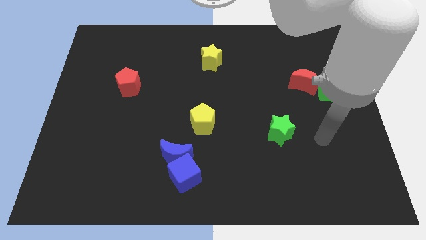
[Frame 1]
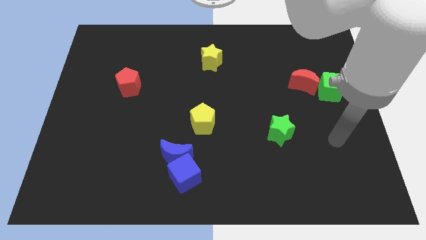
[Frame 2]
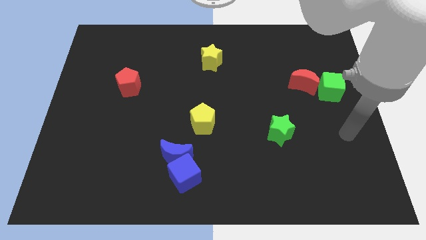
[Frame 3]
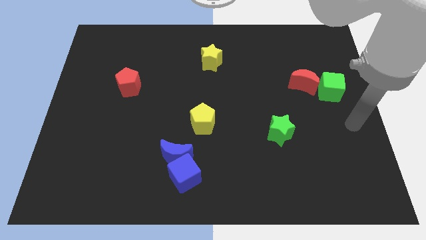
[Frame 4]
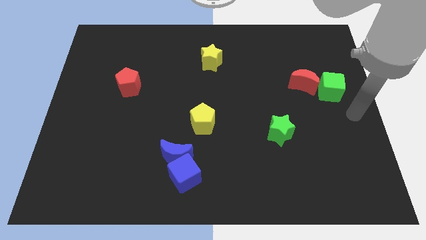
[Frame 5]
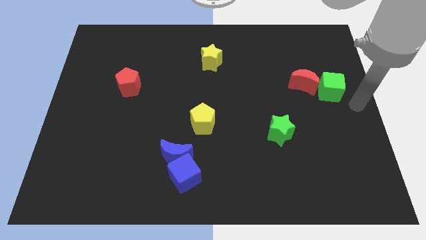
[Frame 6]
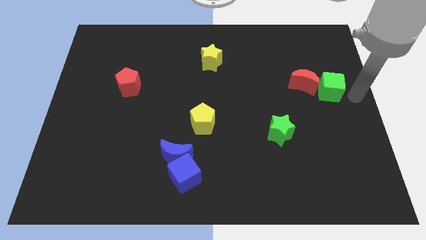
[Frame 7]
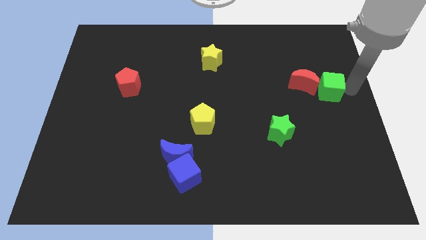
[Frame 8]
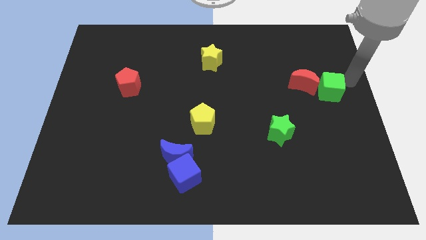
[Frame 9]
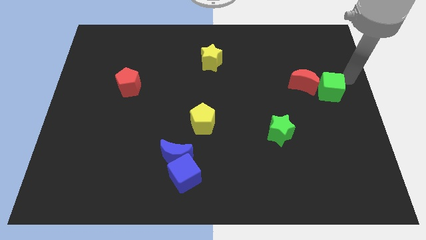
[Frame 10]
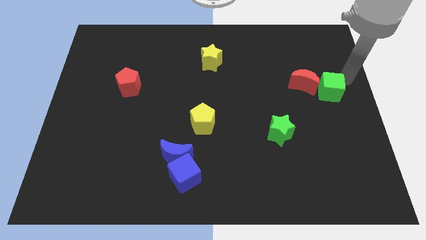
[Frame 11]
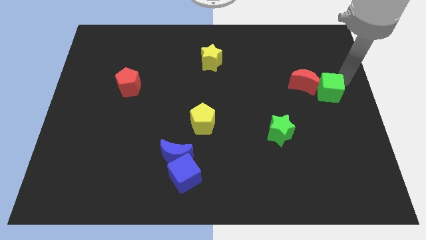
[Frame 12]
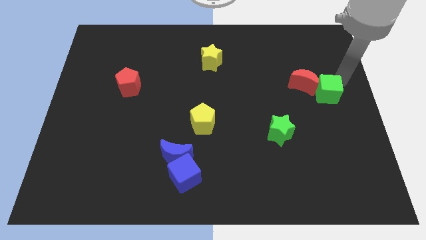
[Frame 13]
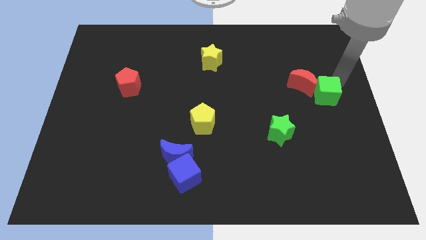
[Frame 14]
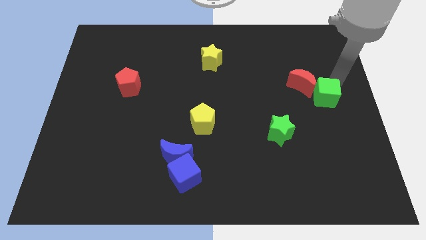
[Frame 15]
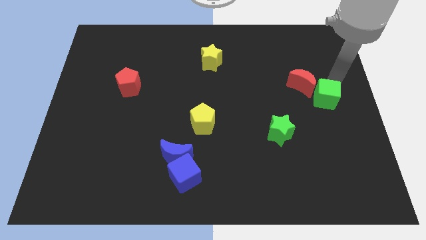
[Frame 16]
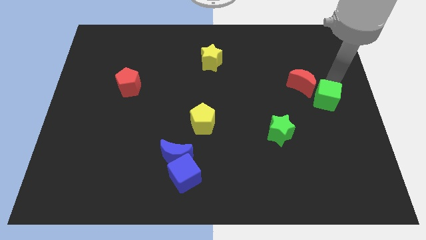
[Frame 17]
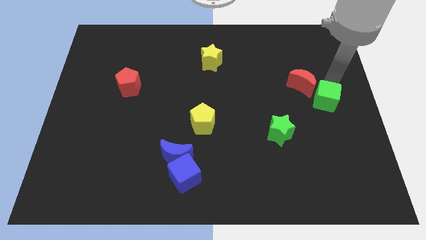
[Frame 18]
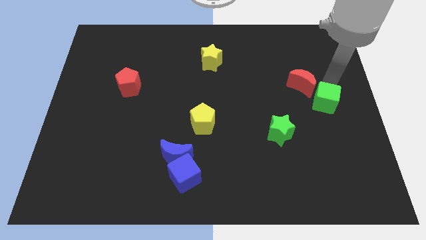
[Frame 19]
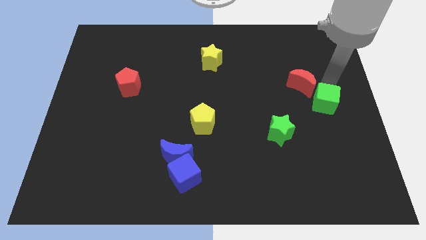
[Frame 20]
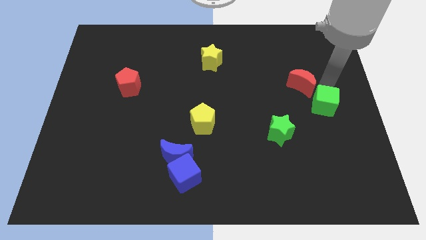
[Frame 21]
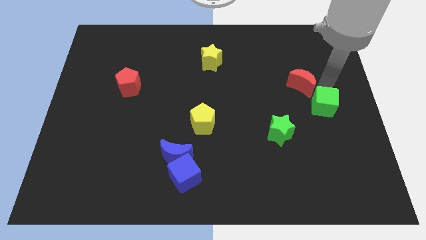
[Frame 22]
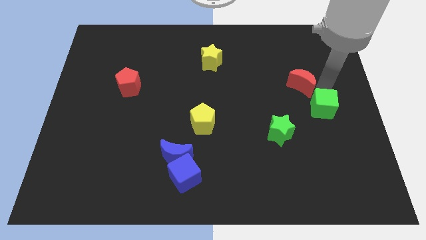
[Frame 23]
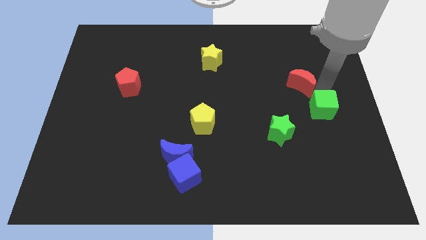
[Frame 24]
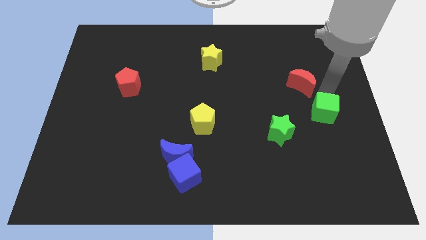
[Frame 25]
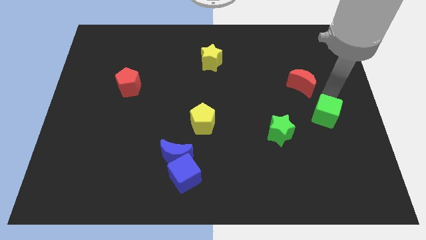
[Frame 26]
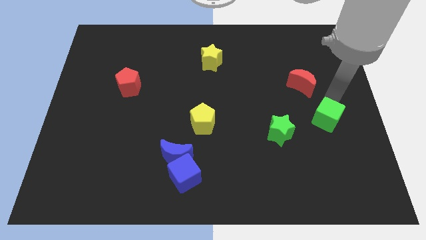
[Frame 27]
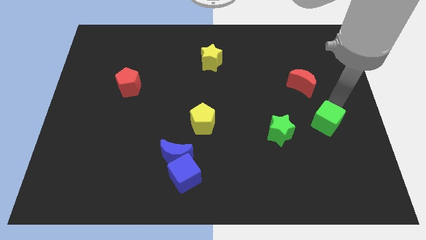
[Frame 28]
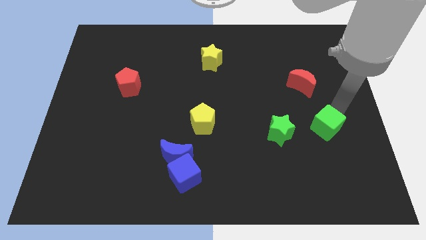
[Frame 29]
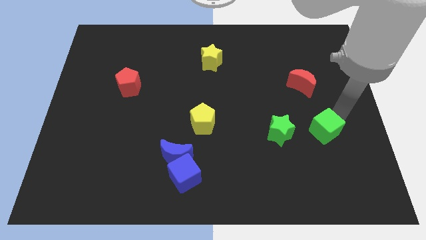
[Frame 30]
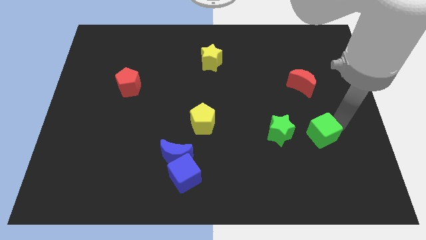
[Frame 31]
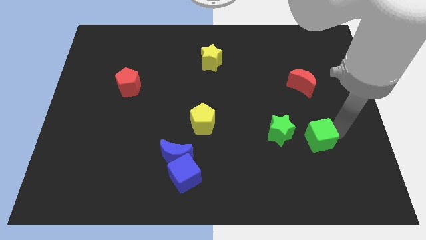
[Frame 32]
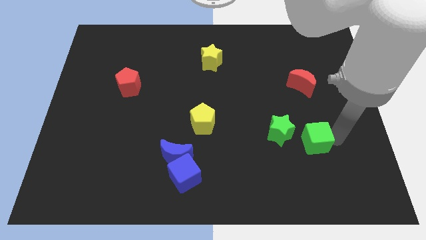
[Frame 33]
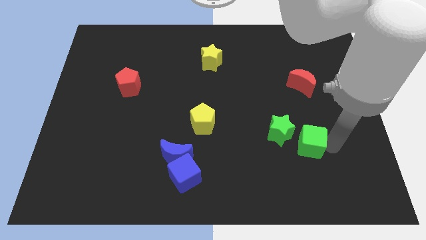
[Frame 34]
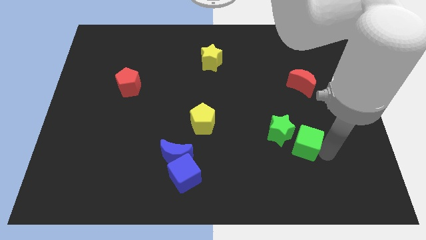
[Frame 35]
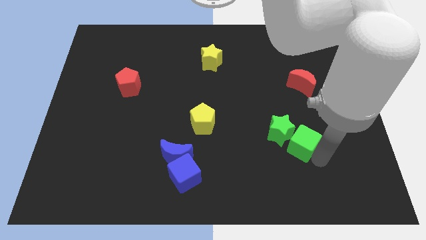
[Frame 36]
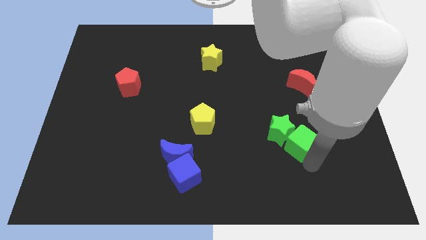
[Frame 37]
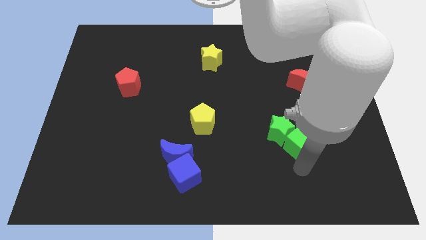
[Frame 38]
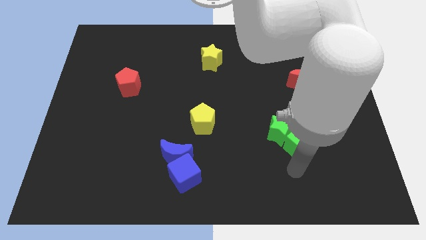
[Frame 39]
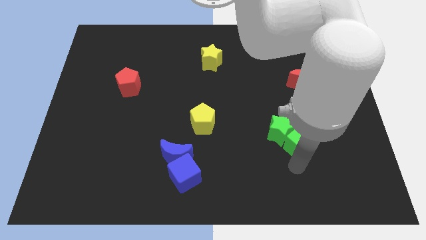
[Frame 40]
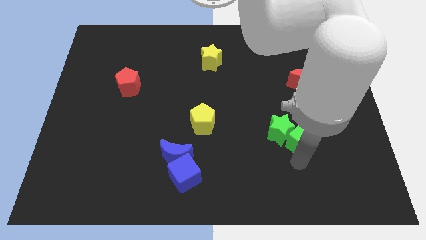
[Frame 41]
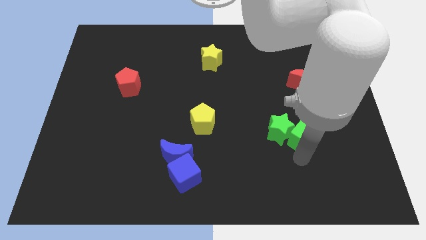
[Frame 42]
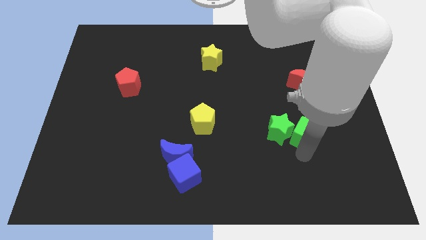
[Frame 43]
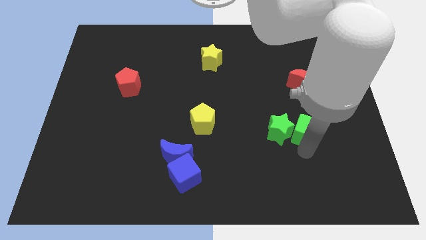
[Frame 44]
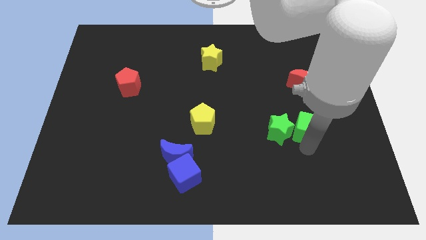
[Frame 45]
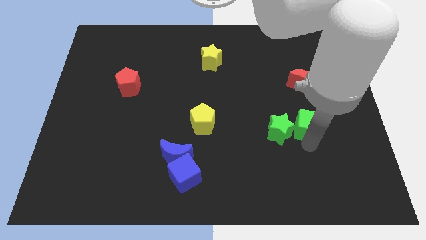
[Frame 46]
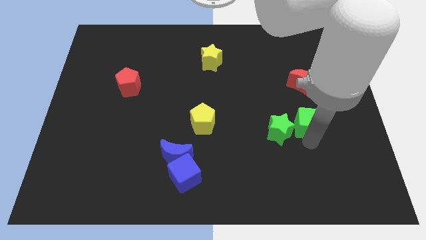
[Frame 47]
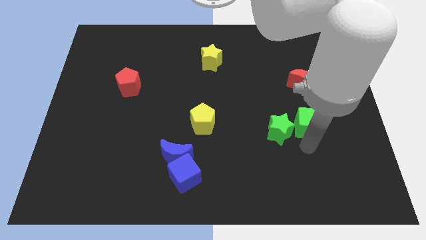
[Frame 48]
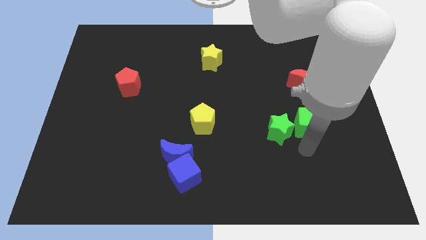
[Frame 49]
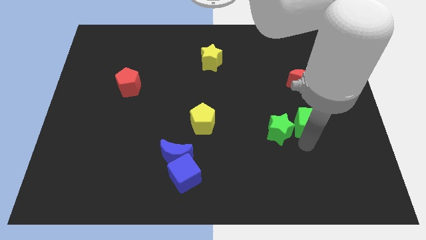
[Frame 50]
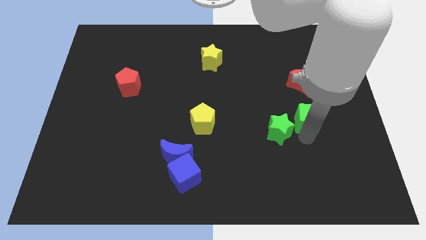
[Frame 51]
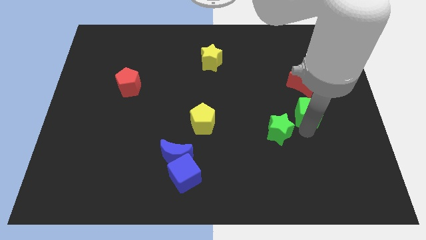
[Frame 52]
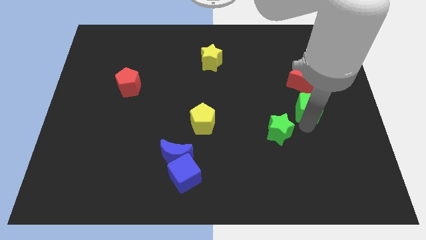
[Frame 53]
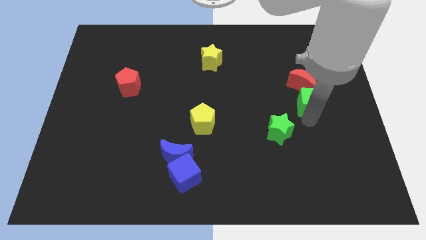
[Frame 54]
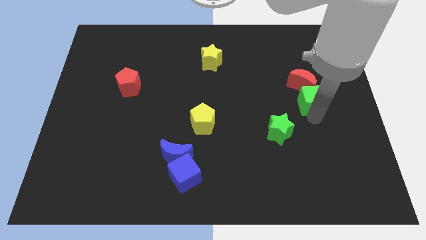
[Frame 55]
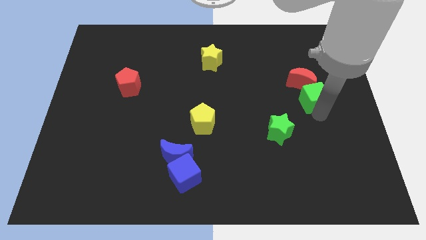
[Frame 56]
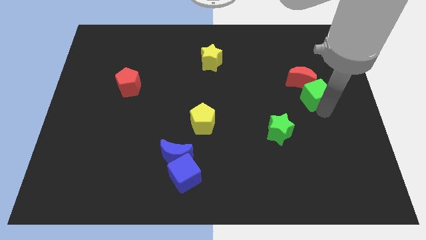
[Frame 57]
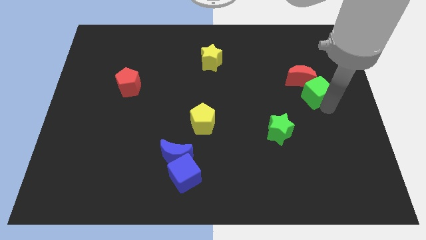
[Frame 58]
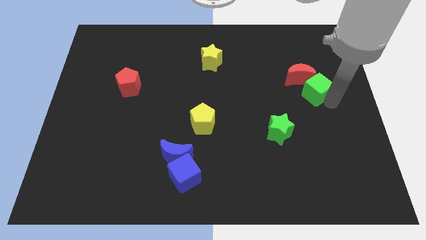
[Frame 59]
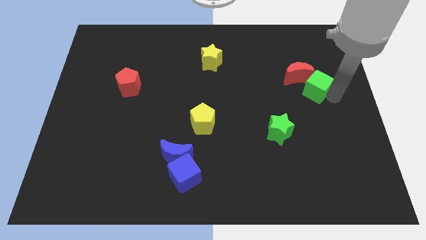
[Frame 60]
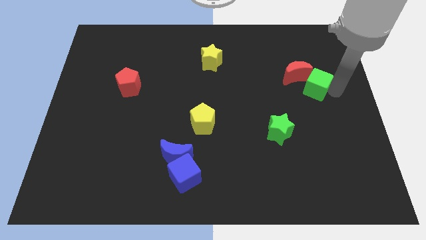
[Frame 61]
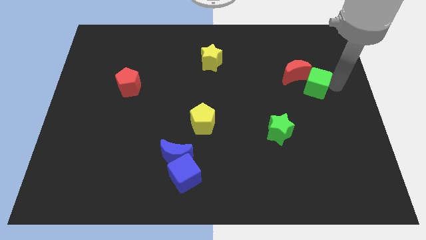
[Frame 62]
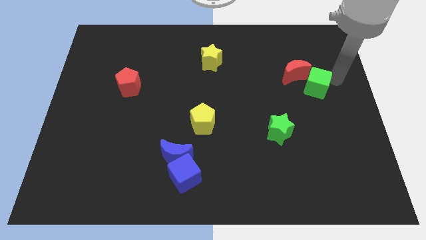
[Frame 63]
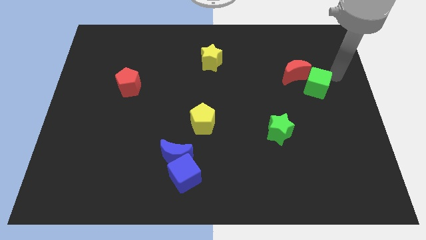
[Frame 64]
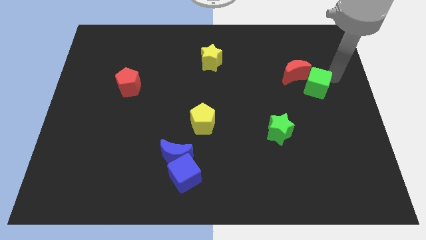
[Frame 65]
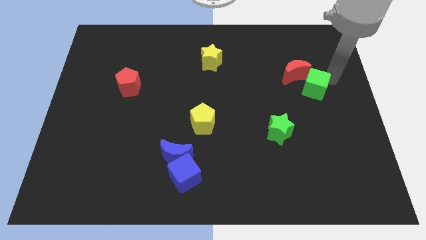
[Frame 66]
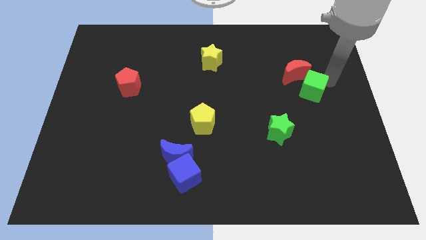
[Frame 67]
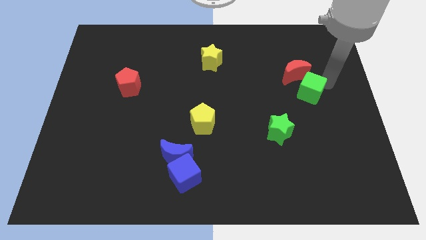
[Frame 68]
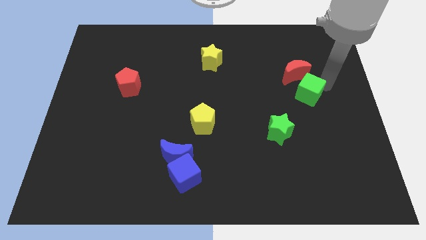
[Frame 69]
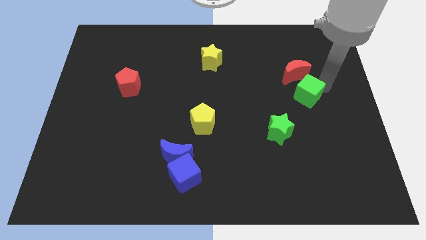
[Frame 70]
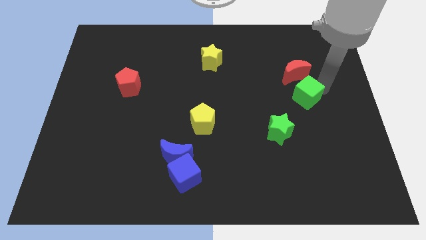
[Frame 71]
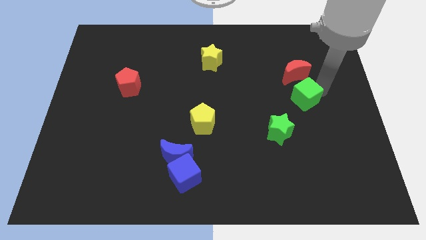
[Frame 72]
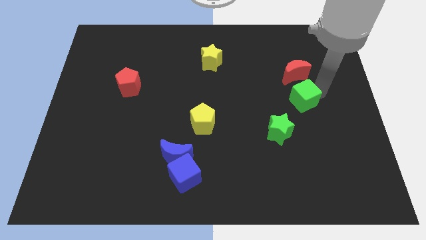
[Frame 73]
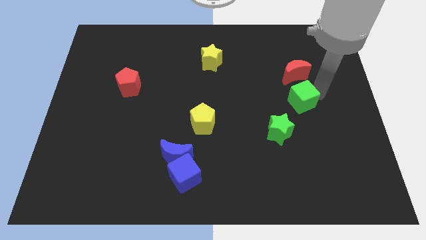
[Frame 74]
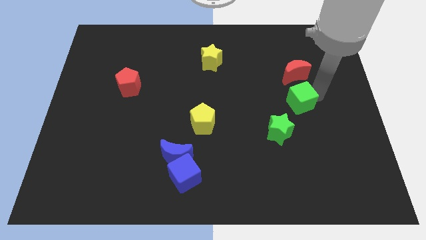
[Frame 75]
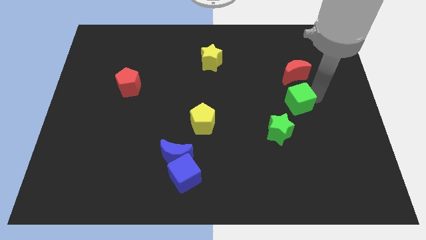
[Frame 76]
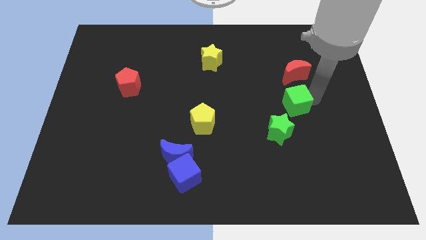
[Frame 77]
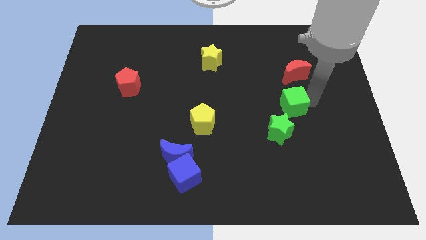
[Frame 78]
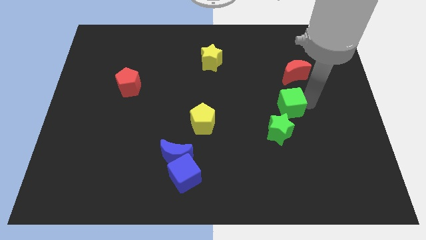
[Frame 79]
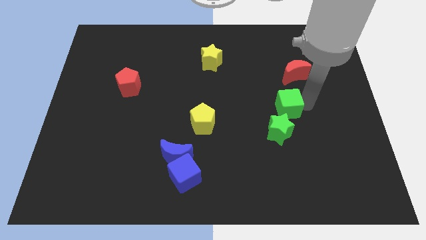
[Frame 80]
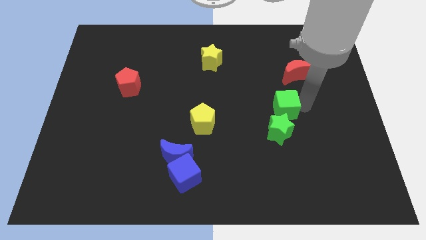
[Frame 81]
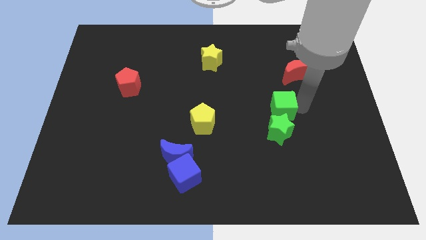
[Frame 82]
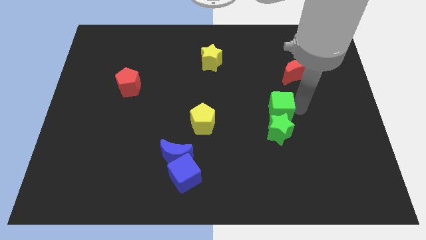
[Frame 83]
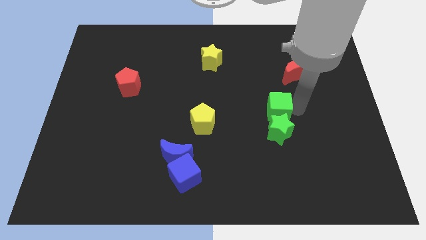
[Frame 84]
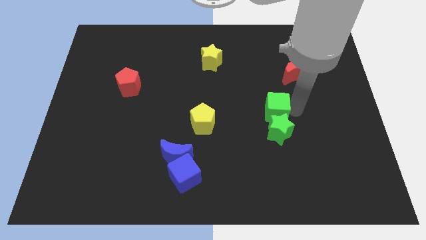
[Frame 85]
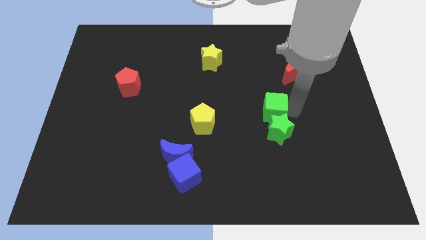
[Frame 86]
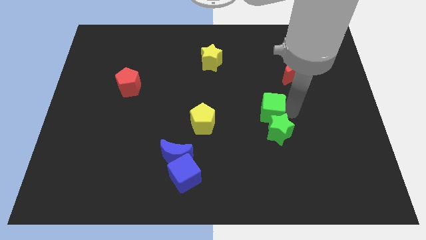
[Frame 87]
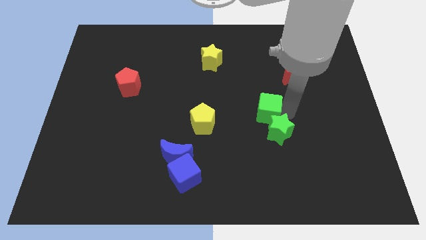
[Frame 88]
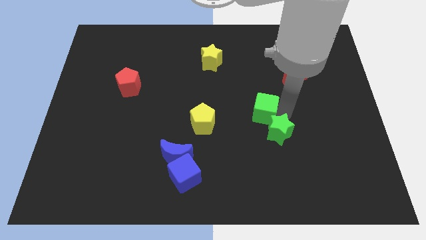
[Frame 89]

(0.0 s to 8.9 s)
slide the green cube to the middle
